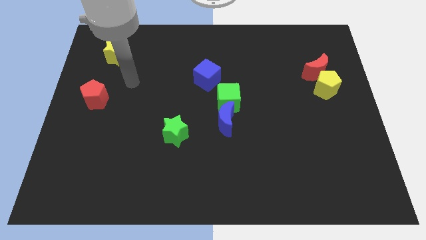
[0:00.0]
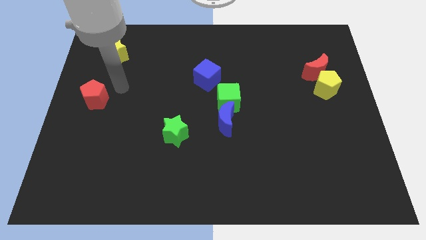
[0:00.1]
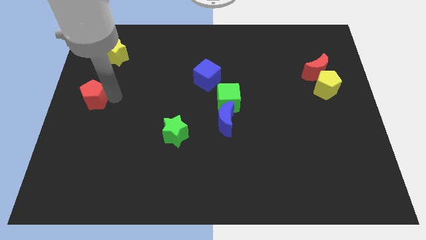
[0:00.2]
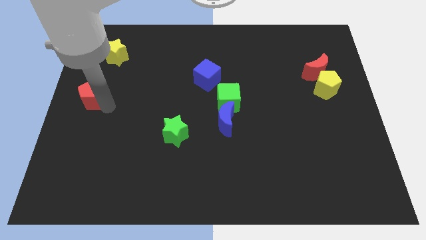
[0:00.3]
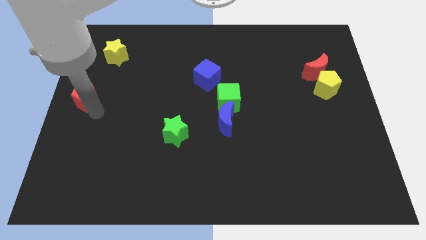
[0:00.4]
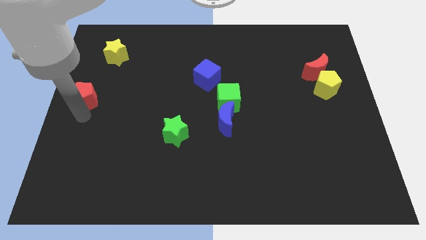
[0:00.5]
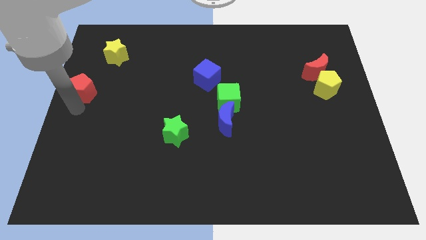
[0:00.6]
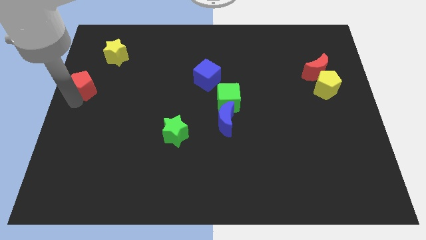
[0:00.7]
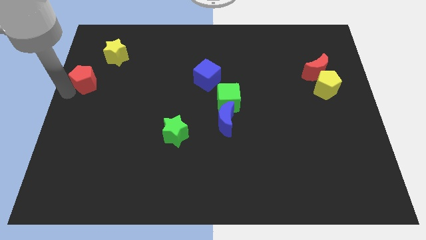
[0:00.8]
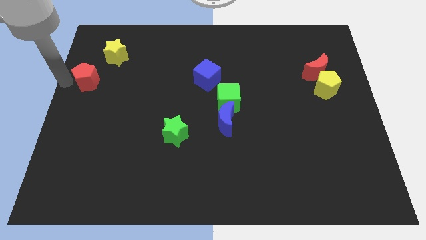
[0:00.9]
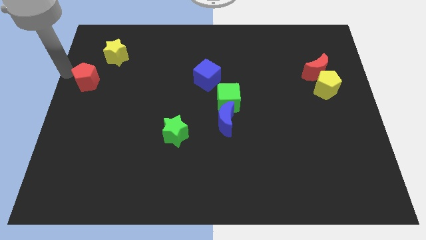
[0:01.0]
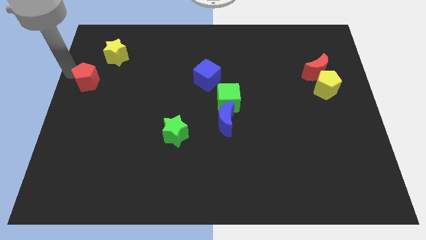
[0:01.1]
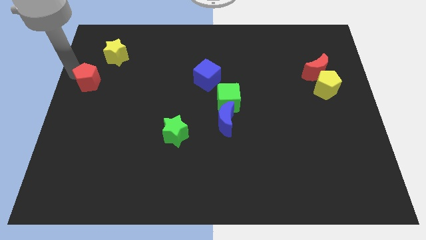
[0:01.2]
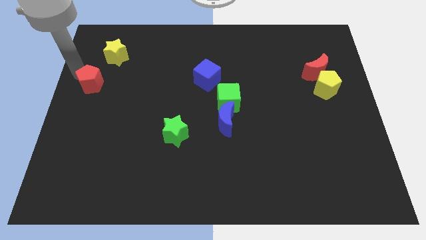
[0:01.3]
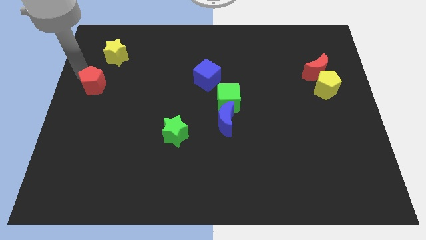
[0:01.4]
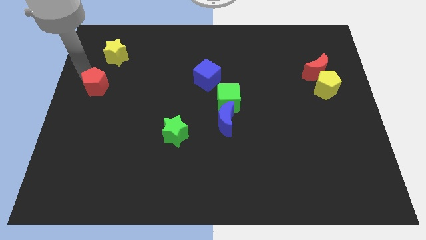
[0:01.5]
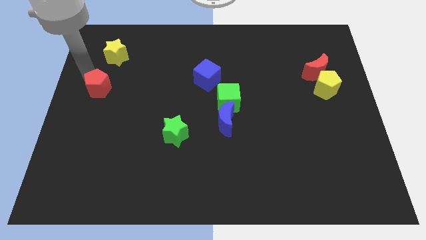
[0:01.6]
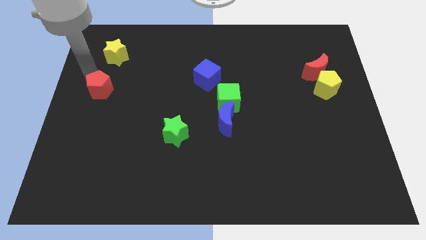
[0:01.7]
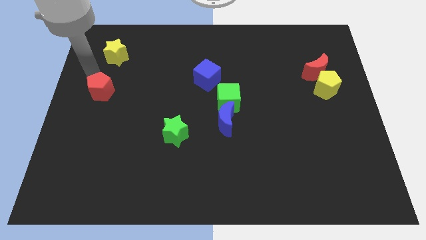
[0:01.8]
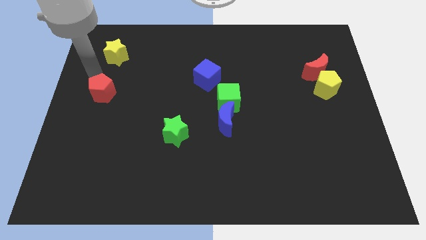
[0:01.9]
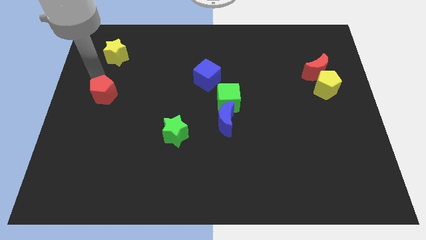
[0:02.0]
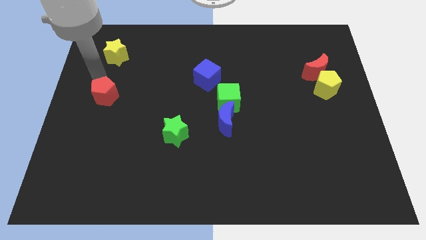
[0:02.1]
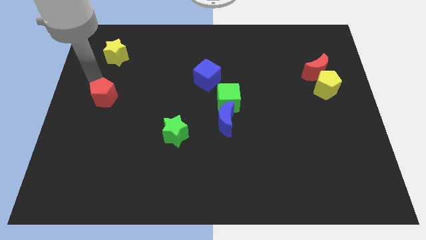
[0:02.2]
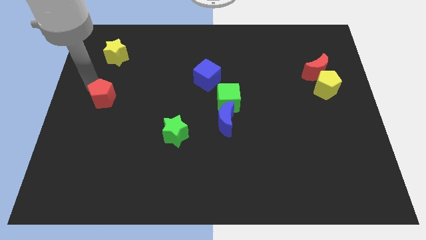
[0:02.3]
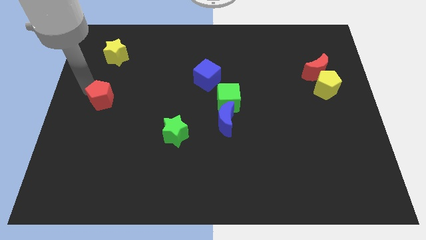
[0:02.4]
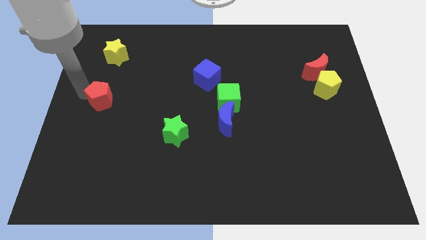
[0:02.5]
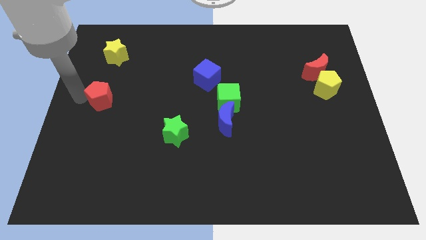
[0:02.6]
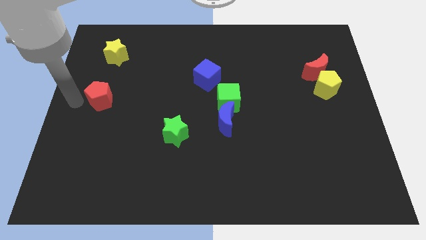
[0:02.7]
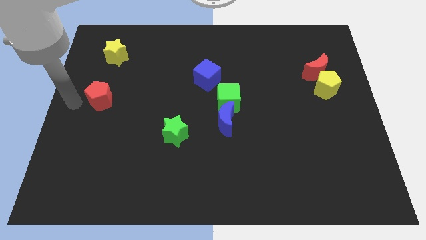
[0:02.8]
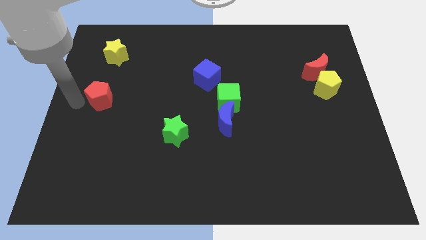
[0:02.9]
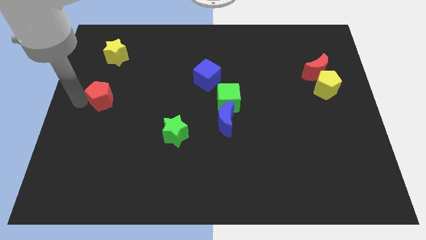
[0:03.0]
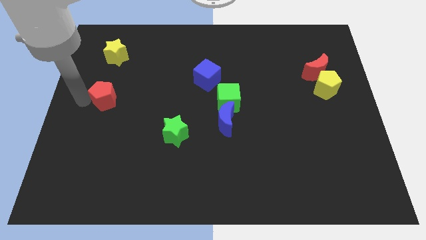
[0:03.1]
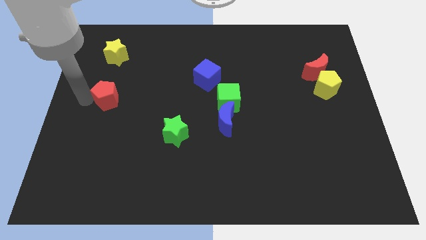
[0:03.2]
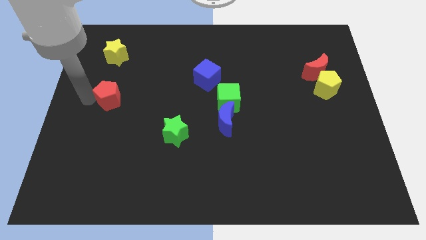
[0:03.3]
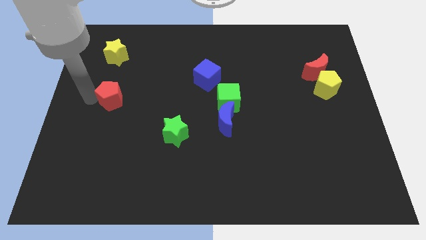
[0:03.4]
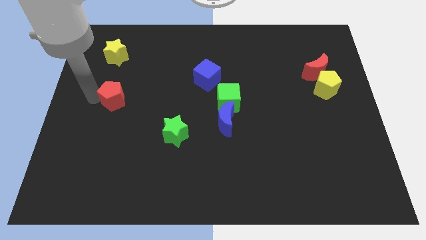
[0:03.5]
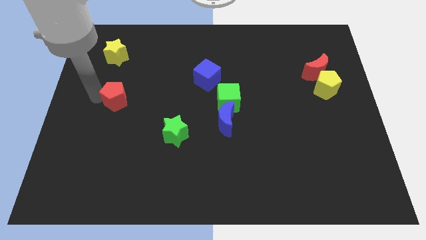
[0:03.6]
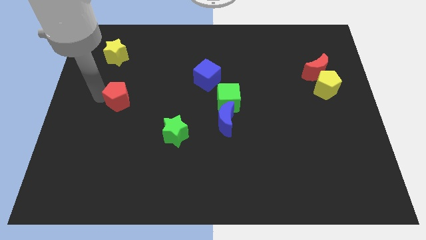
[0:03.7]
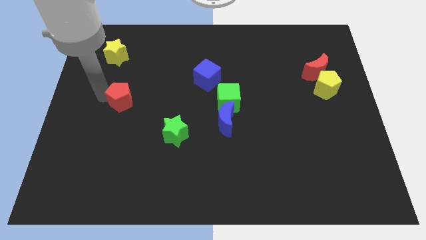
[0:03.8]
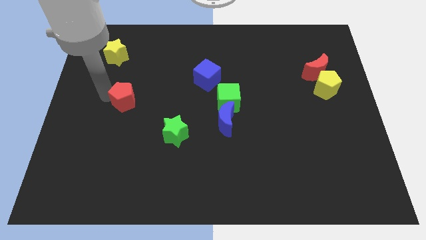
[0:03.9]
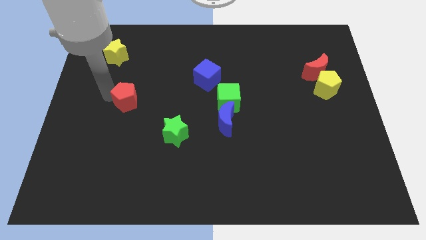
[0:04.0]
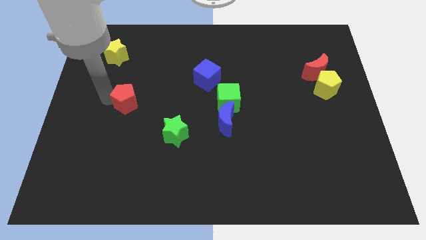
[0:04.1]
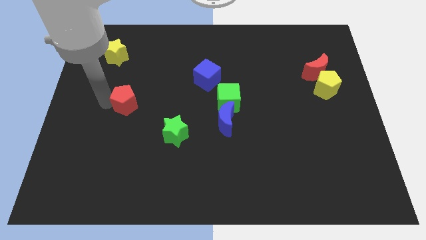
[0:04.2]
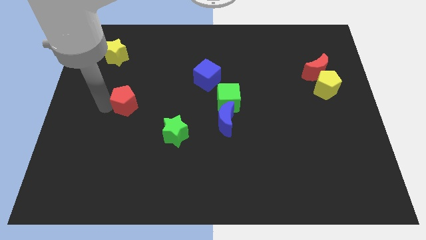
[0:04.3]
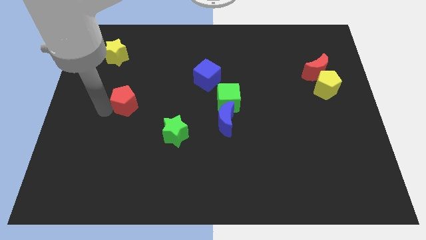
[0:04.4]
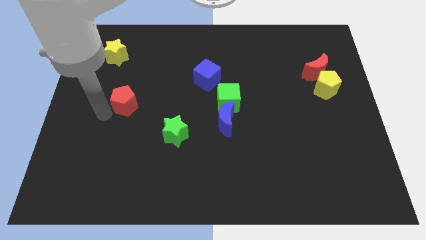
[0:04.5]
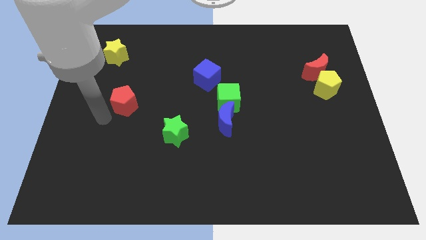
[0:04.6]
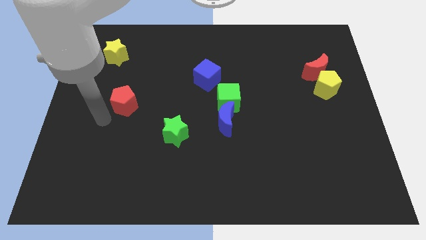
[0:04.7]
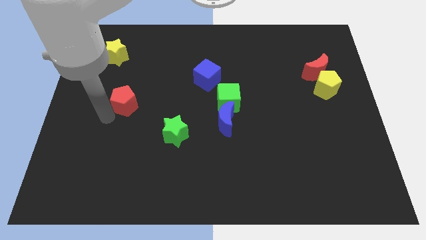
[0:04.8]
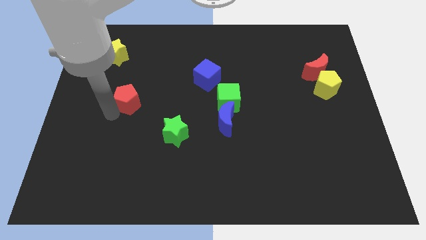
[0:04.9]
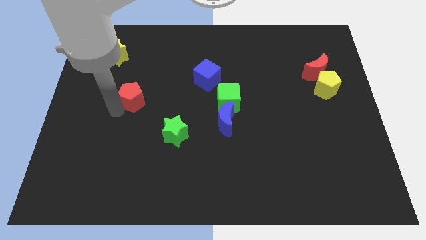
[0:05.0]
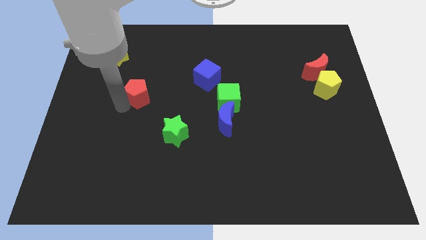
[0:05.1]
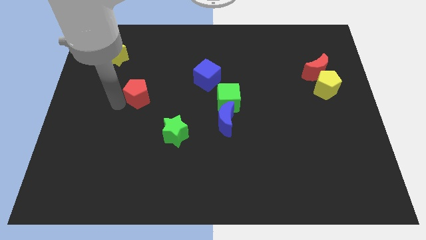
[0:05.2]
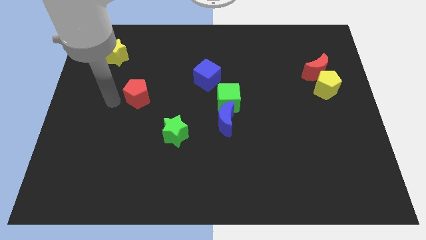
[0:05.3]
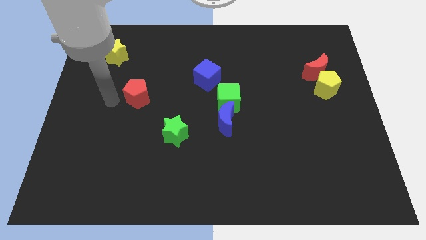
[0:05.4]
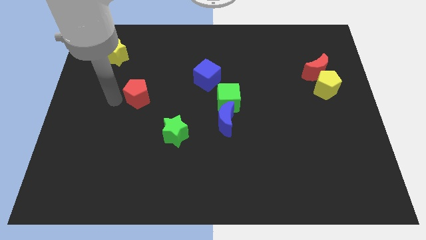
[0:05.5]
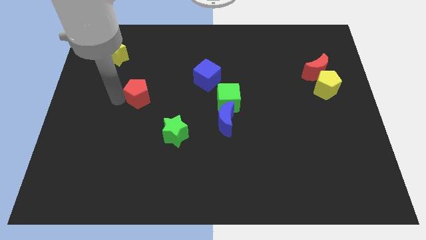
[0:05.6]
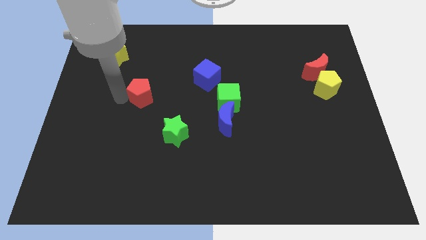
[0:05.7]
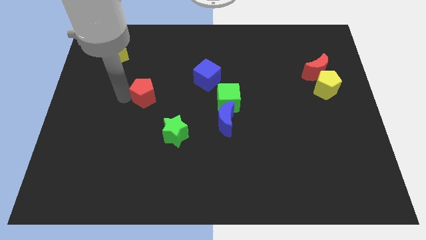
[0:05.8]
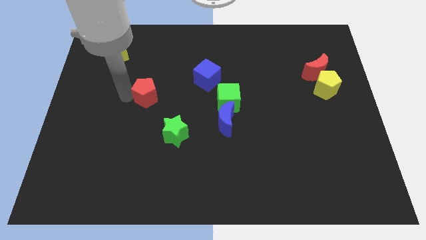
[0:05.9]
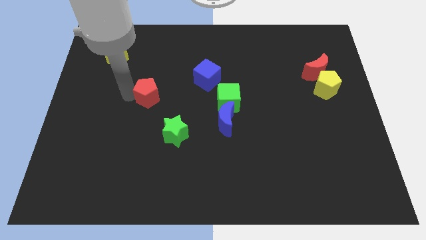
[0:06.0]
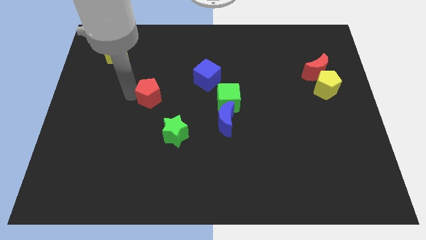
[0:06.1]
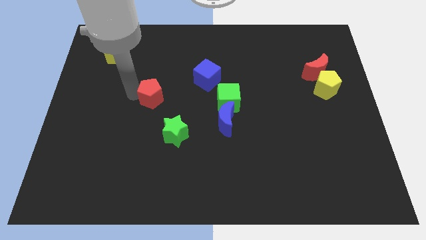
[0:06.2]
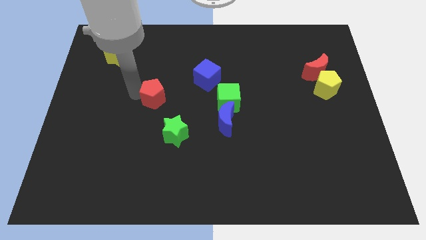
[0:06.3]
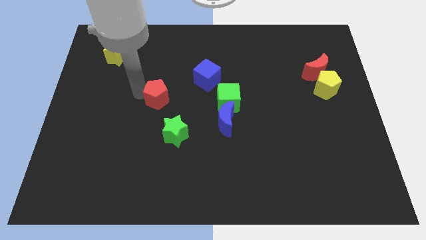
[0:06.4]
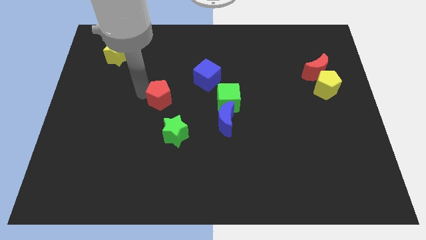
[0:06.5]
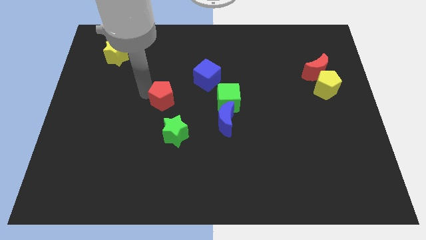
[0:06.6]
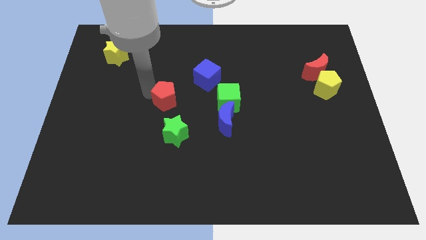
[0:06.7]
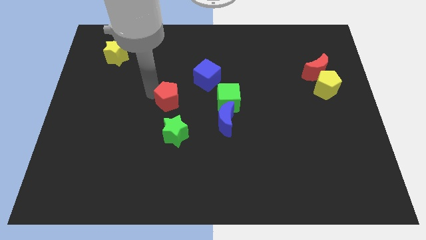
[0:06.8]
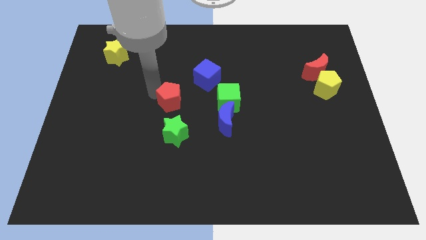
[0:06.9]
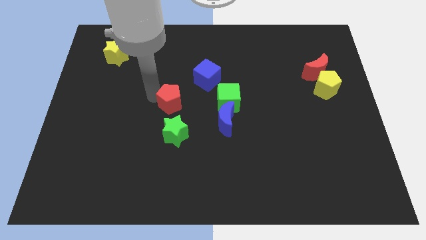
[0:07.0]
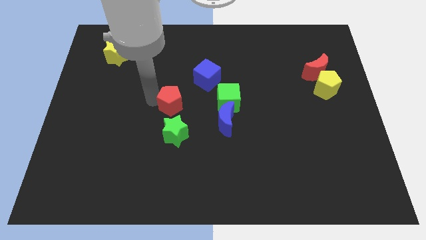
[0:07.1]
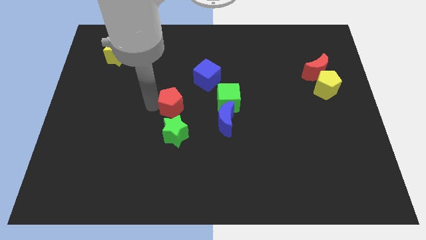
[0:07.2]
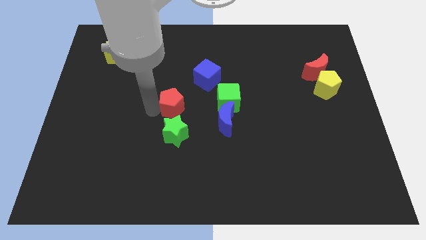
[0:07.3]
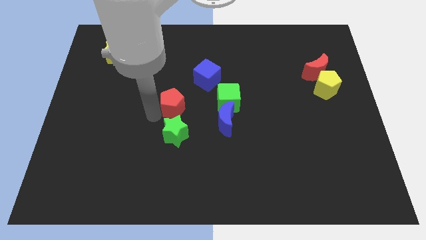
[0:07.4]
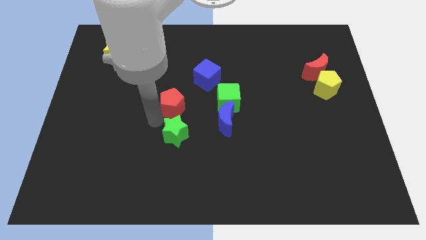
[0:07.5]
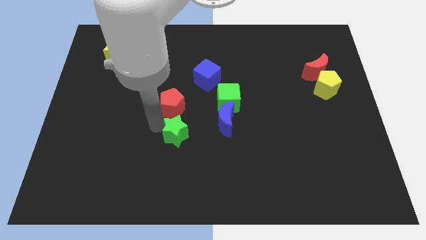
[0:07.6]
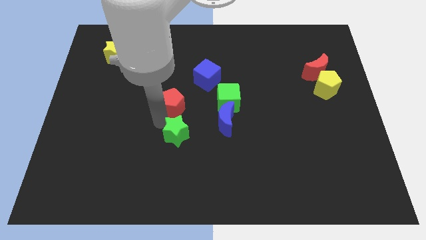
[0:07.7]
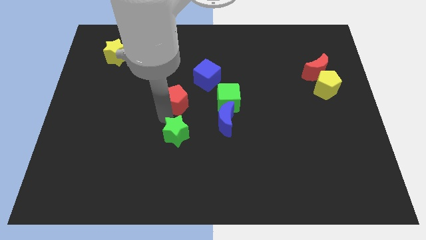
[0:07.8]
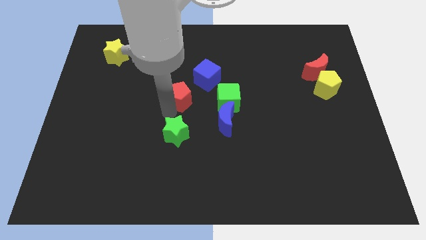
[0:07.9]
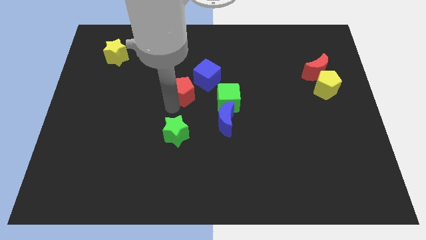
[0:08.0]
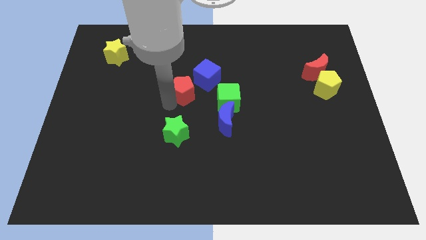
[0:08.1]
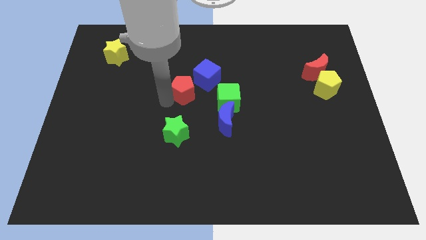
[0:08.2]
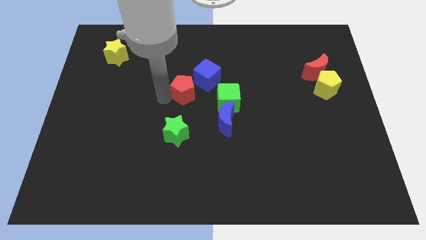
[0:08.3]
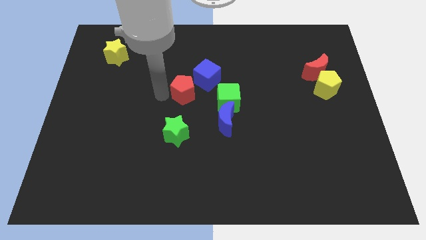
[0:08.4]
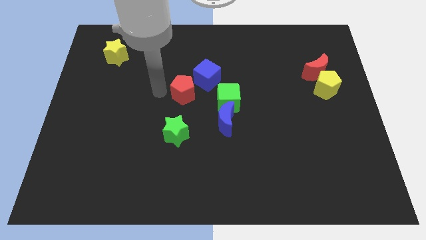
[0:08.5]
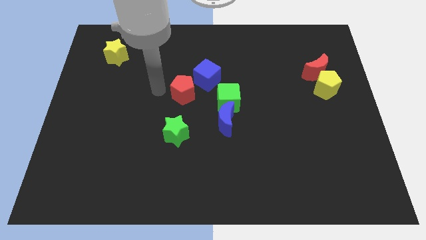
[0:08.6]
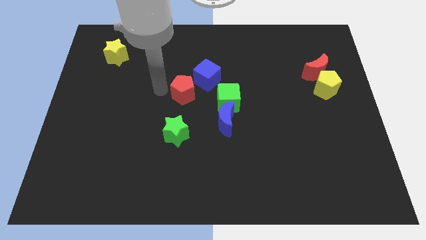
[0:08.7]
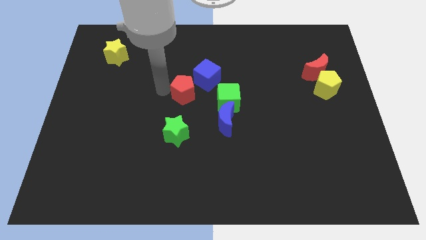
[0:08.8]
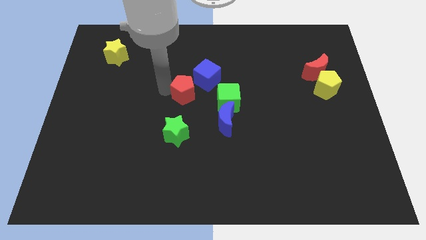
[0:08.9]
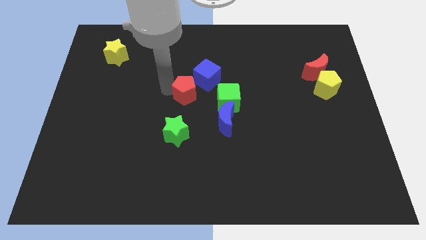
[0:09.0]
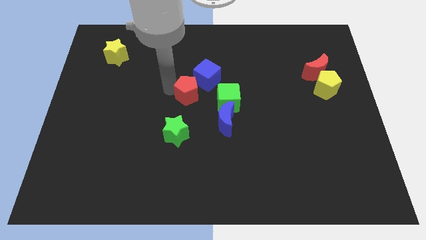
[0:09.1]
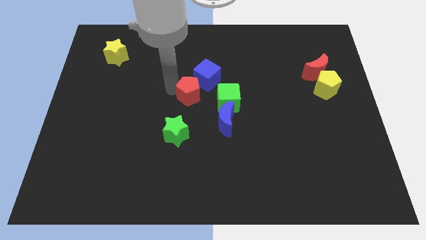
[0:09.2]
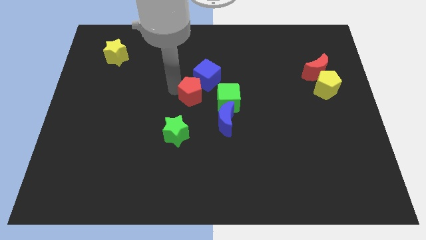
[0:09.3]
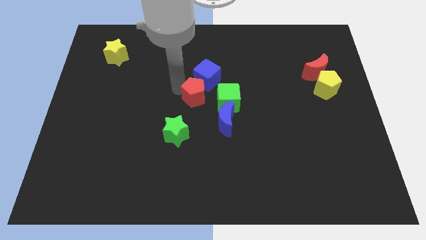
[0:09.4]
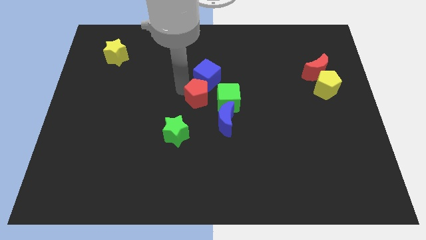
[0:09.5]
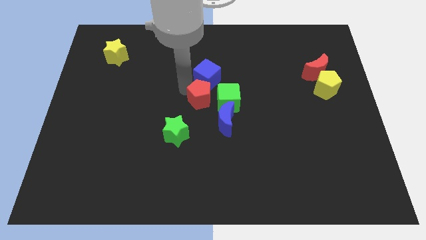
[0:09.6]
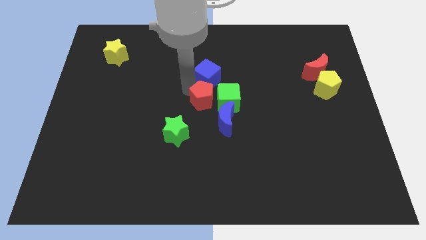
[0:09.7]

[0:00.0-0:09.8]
slide the red pentagon to the green cube
